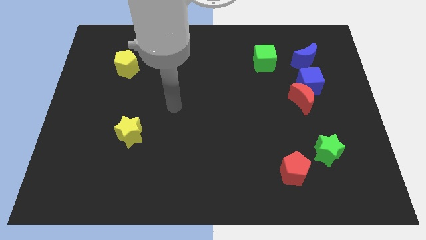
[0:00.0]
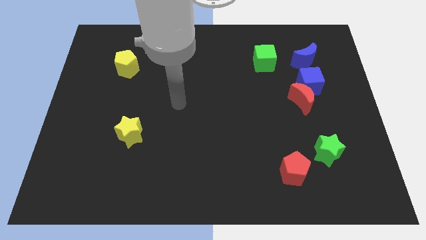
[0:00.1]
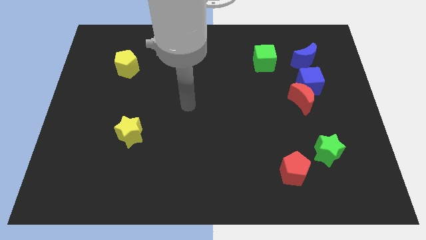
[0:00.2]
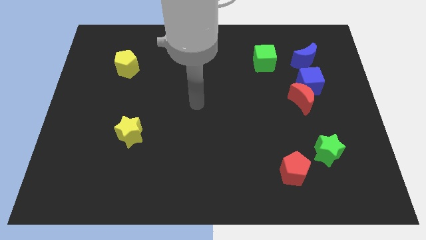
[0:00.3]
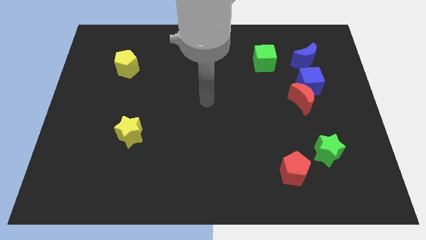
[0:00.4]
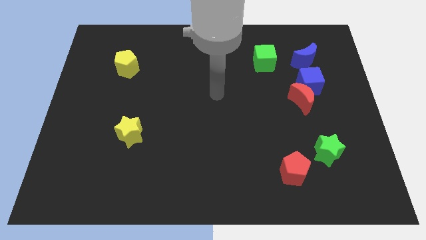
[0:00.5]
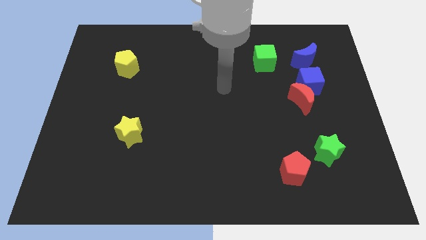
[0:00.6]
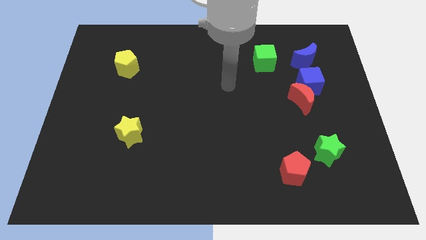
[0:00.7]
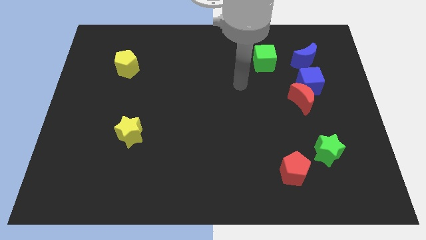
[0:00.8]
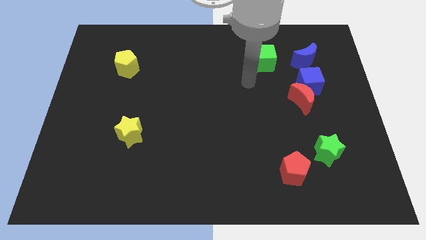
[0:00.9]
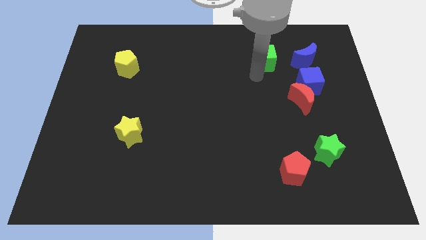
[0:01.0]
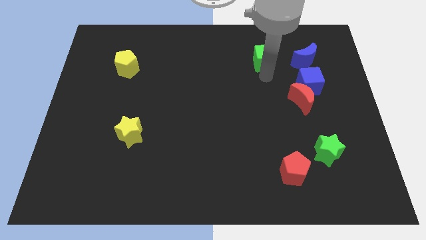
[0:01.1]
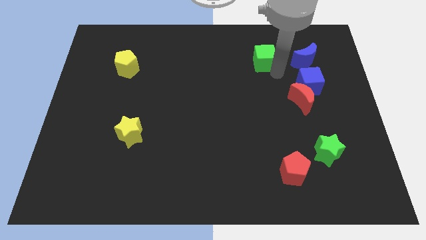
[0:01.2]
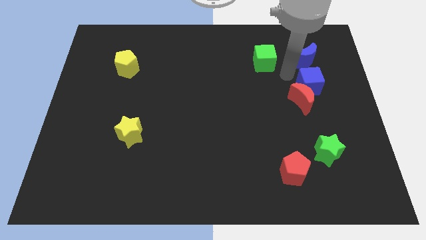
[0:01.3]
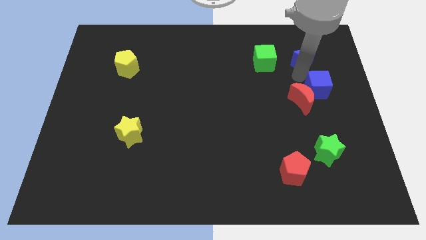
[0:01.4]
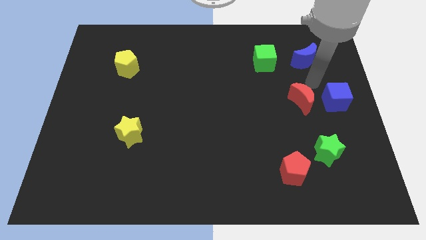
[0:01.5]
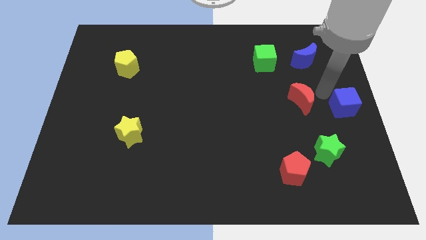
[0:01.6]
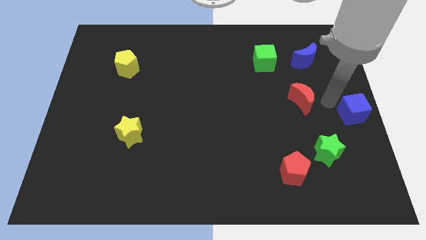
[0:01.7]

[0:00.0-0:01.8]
move the red moon away from the blue cube

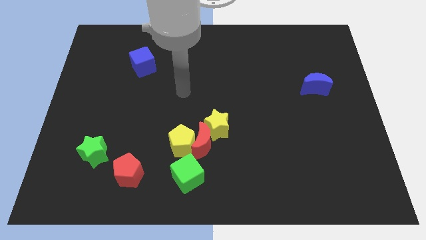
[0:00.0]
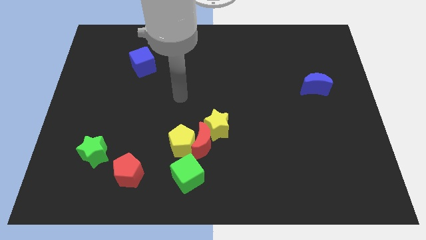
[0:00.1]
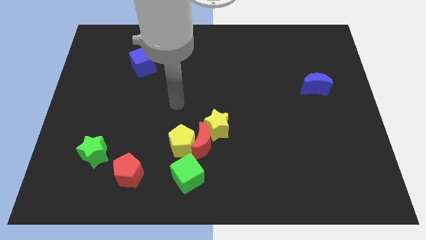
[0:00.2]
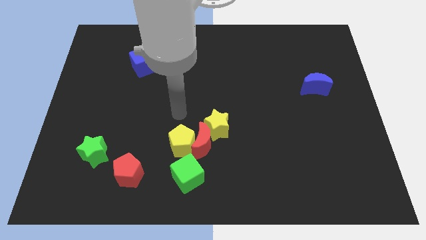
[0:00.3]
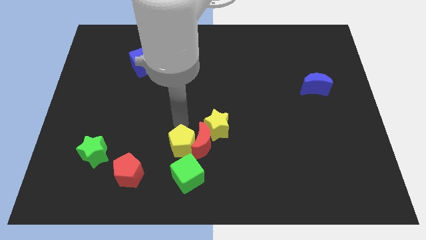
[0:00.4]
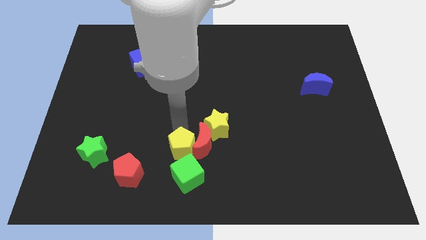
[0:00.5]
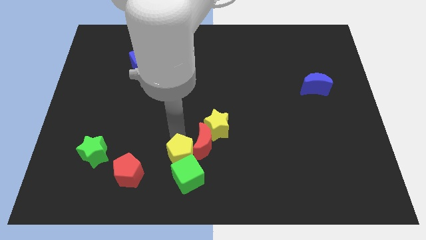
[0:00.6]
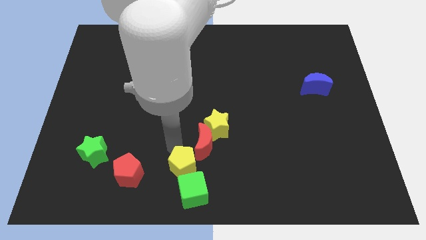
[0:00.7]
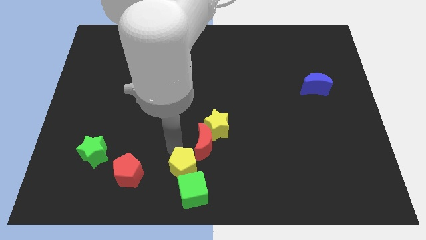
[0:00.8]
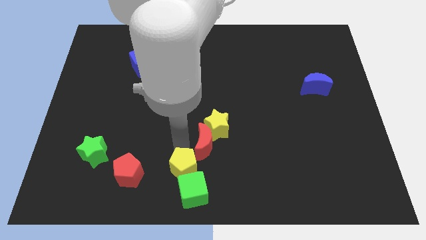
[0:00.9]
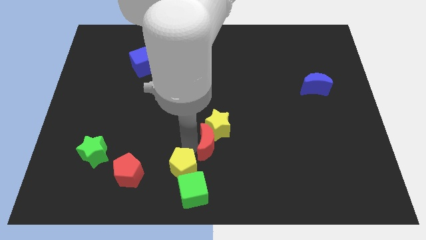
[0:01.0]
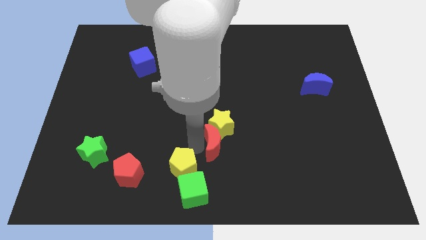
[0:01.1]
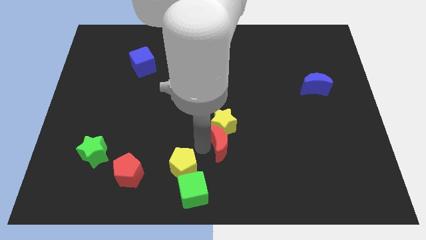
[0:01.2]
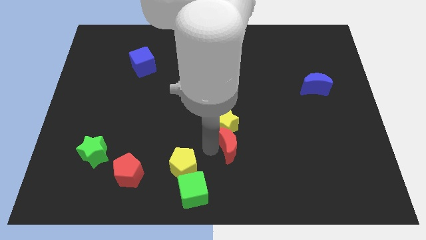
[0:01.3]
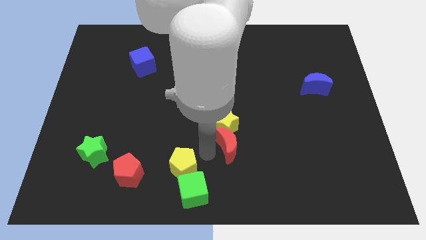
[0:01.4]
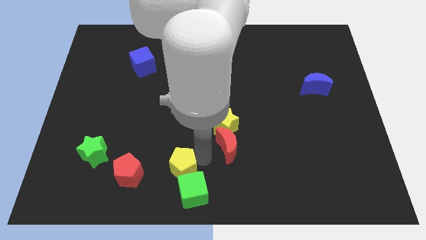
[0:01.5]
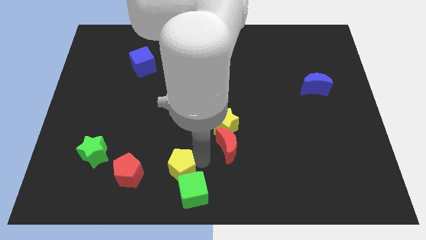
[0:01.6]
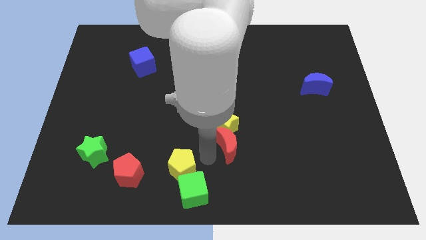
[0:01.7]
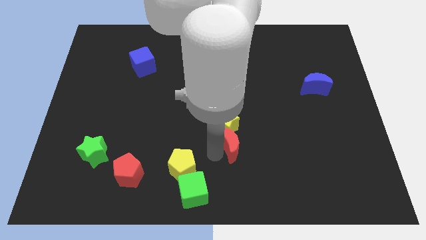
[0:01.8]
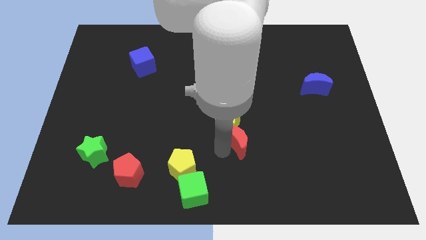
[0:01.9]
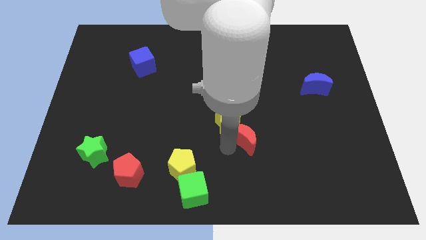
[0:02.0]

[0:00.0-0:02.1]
pull the red moon apart from the group

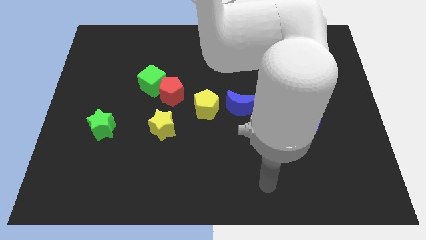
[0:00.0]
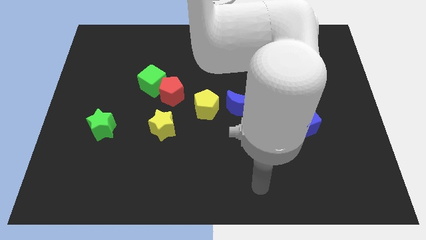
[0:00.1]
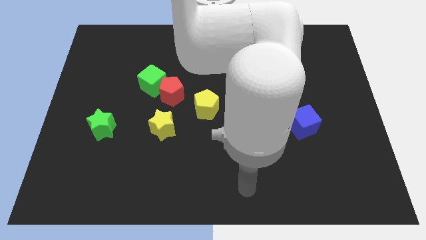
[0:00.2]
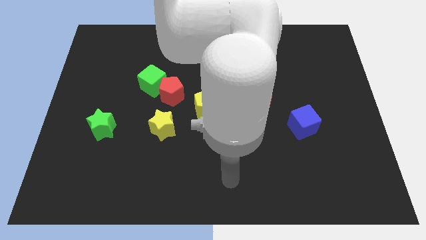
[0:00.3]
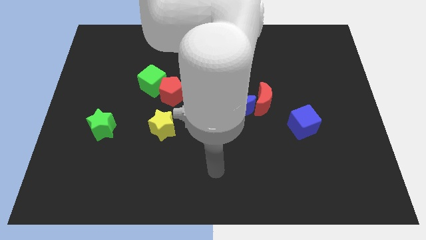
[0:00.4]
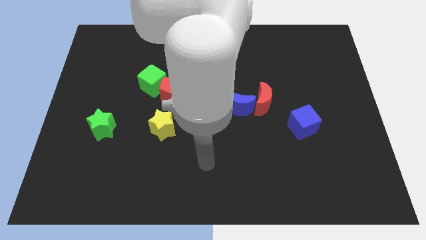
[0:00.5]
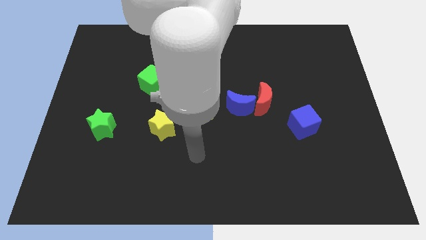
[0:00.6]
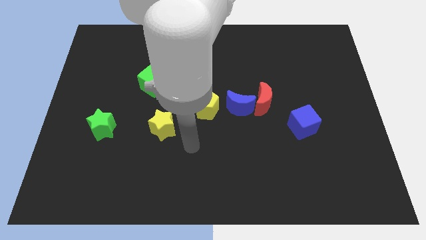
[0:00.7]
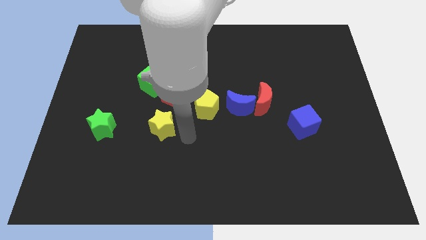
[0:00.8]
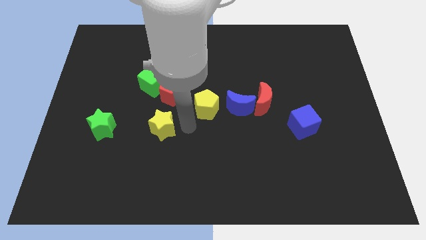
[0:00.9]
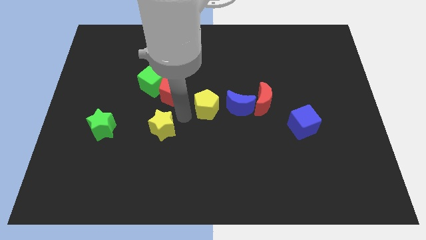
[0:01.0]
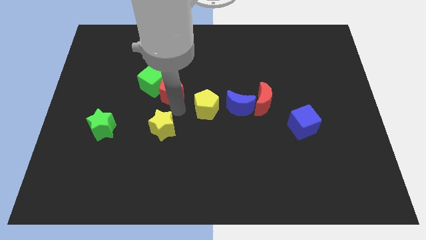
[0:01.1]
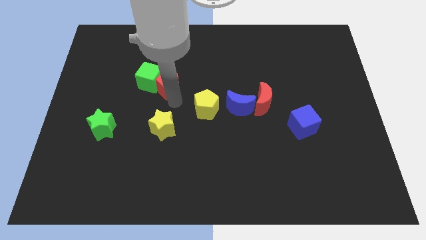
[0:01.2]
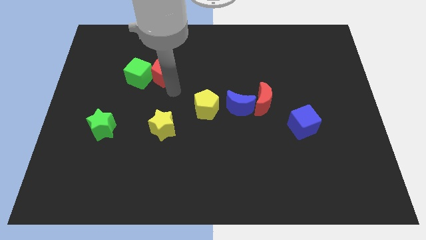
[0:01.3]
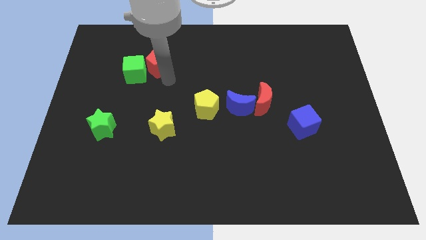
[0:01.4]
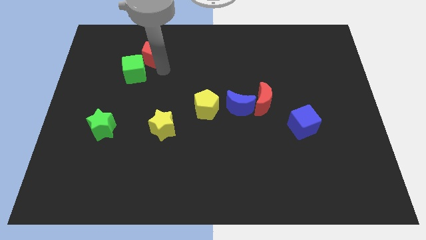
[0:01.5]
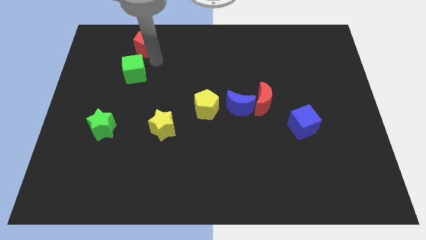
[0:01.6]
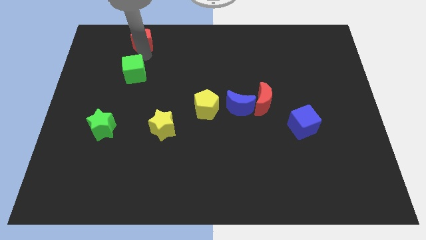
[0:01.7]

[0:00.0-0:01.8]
move the green cube away from the red pentagon

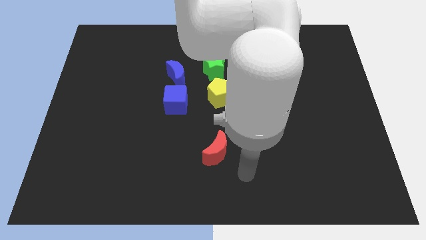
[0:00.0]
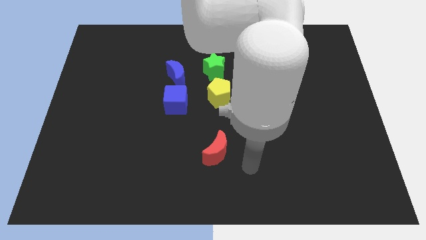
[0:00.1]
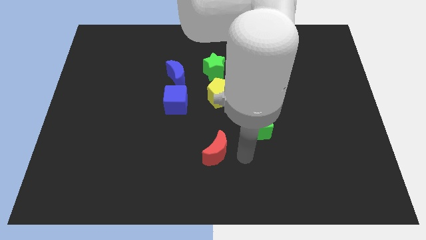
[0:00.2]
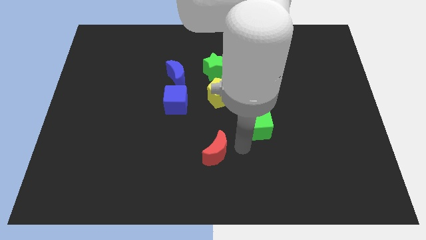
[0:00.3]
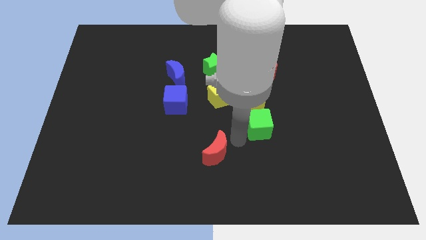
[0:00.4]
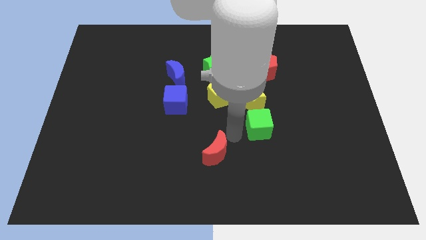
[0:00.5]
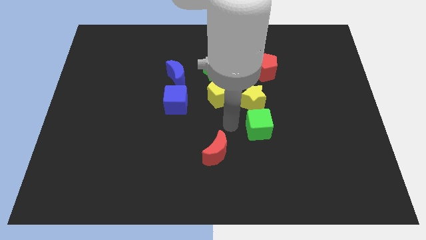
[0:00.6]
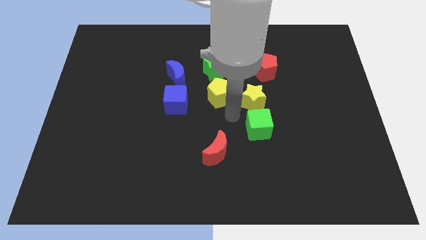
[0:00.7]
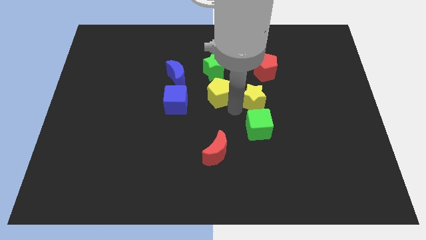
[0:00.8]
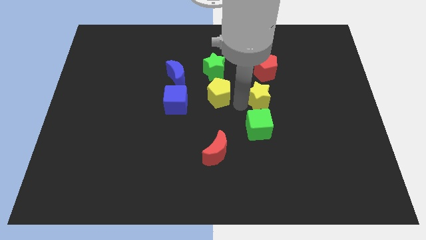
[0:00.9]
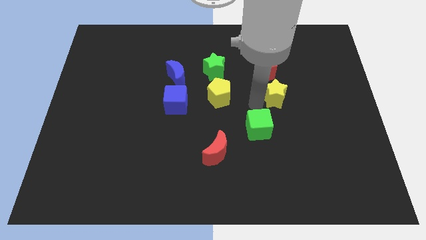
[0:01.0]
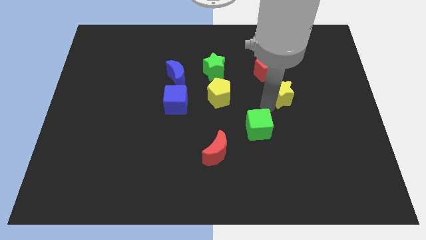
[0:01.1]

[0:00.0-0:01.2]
move the green cube away from the yellow star

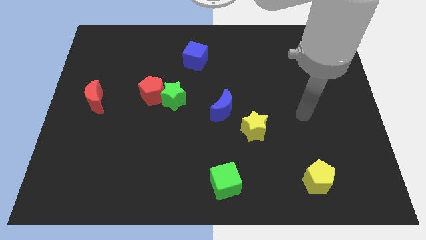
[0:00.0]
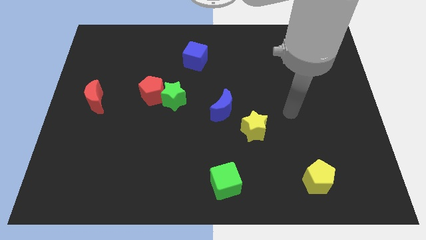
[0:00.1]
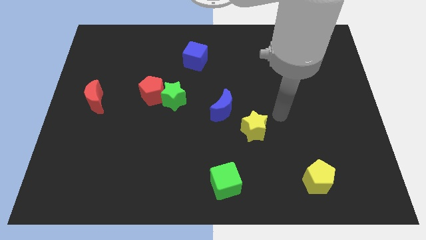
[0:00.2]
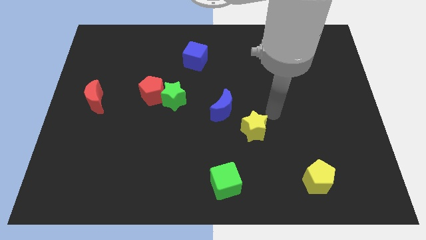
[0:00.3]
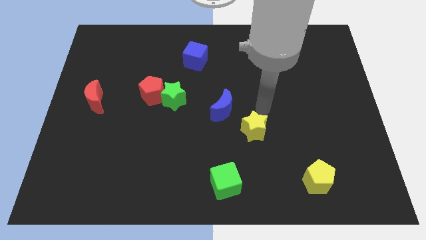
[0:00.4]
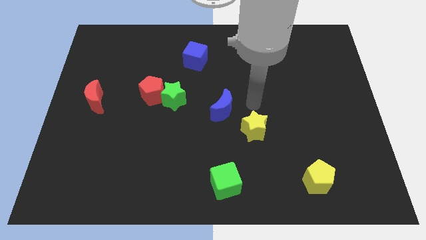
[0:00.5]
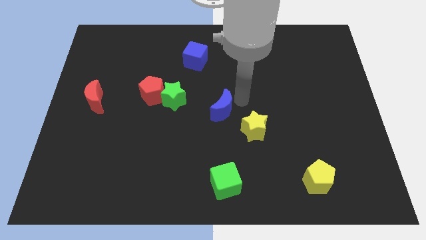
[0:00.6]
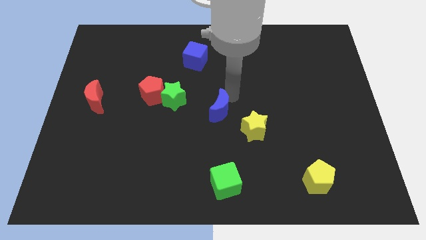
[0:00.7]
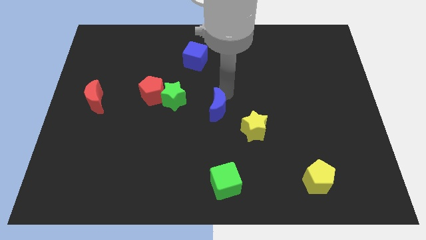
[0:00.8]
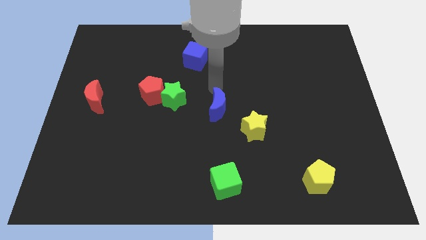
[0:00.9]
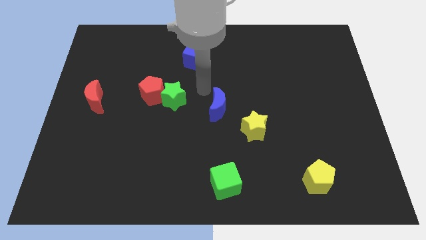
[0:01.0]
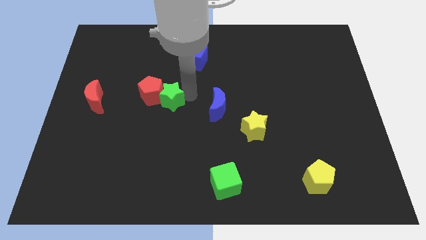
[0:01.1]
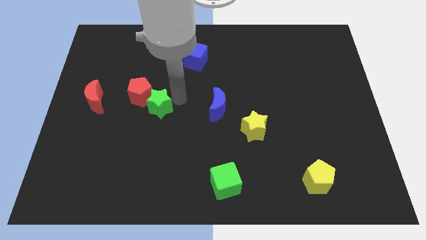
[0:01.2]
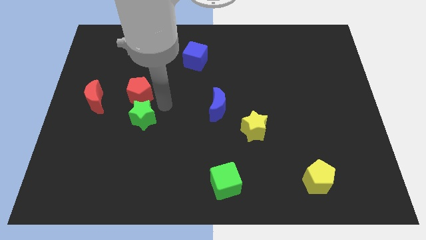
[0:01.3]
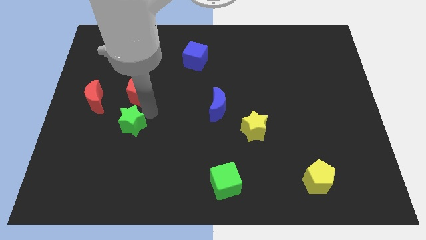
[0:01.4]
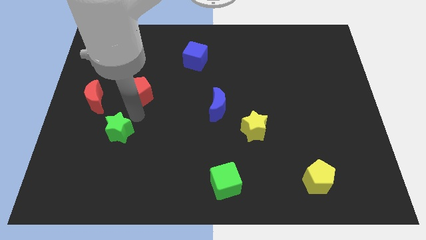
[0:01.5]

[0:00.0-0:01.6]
separate the red pentagon from the green star

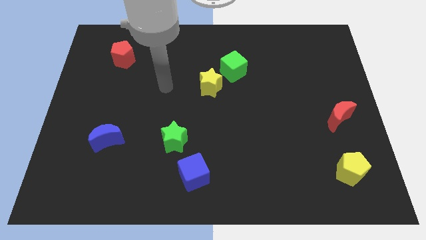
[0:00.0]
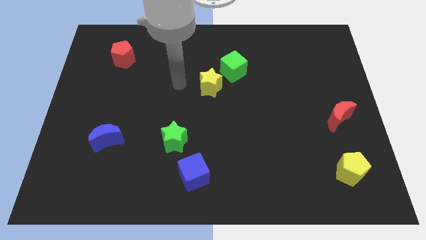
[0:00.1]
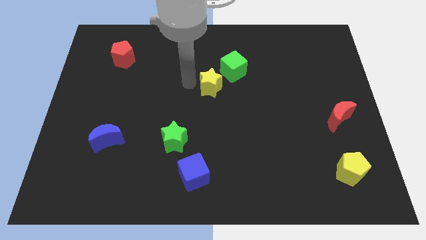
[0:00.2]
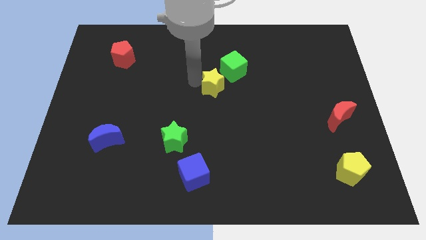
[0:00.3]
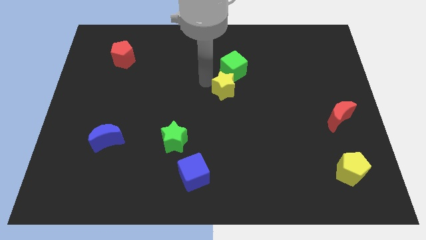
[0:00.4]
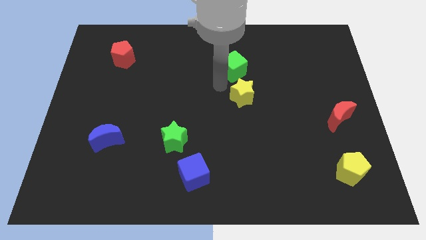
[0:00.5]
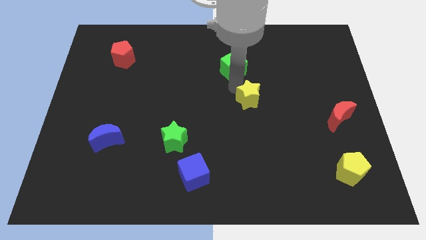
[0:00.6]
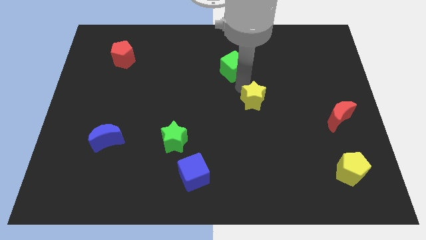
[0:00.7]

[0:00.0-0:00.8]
pull the green cube apart from the yellow star
